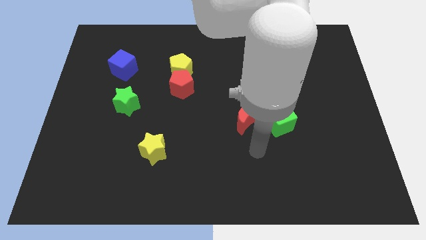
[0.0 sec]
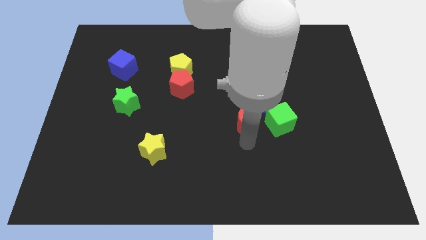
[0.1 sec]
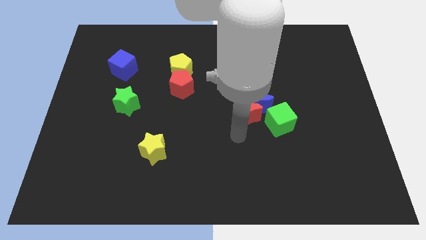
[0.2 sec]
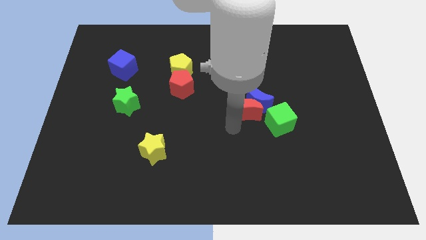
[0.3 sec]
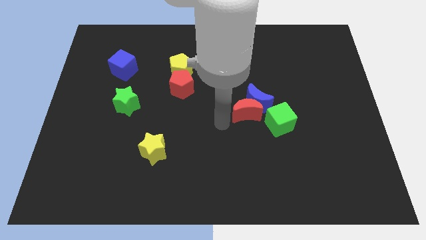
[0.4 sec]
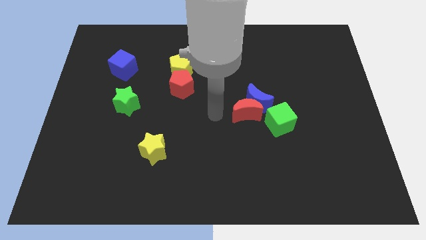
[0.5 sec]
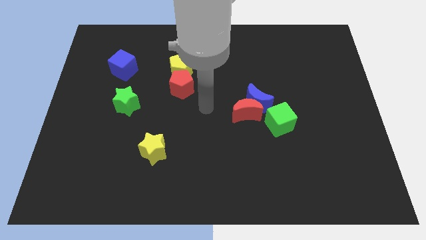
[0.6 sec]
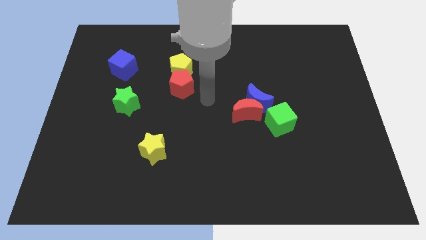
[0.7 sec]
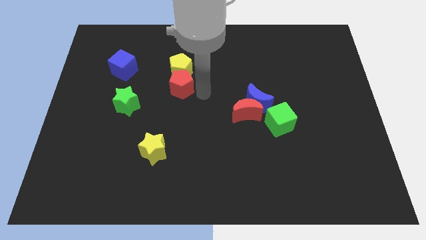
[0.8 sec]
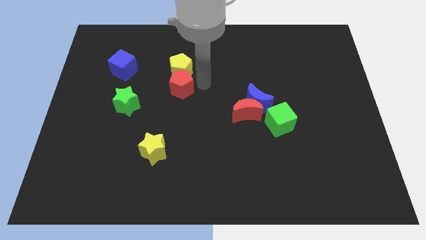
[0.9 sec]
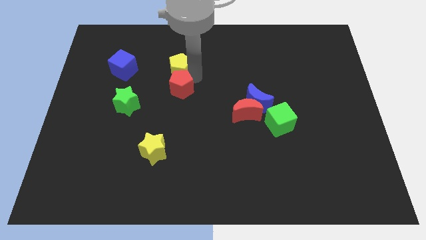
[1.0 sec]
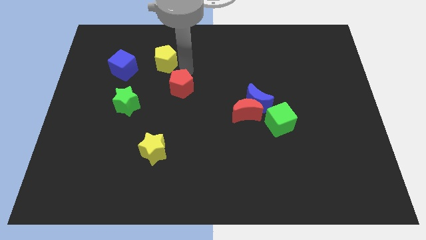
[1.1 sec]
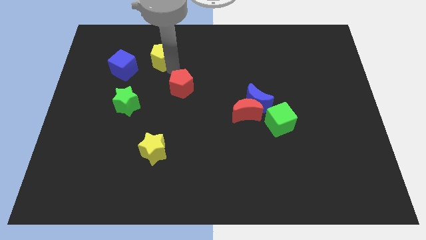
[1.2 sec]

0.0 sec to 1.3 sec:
separate the red pentagon from the yellow pentagon

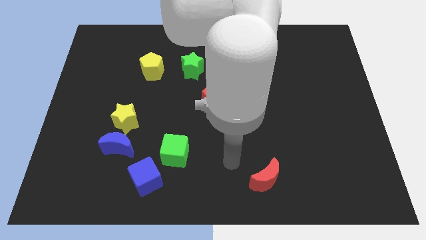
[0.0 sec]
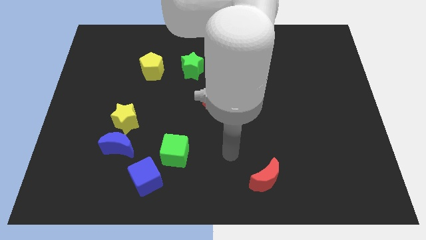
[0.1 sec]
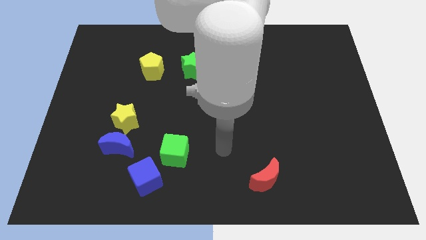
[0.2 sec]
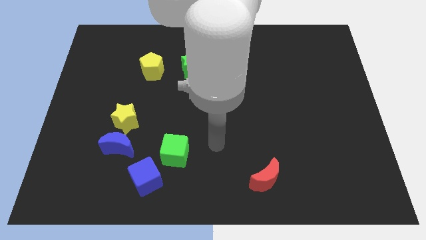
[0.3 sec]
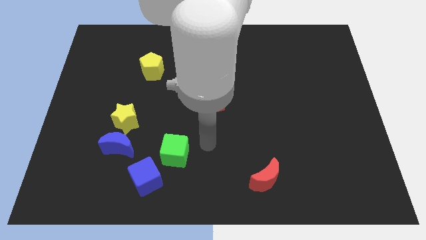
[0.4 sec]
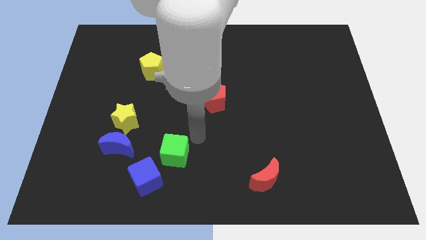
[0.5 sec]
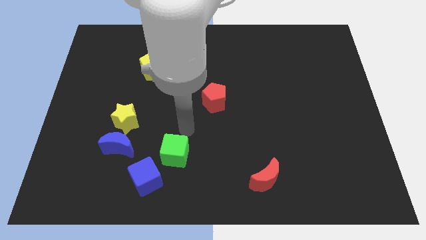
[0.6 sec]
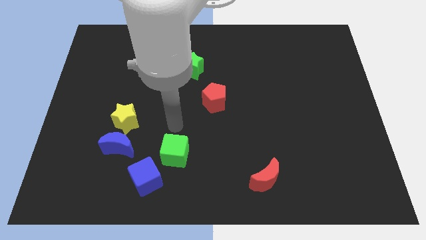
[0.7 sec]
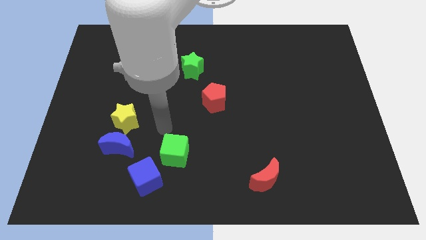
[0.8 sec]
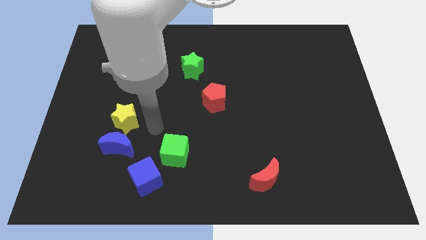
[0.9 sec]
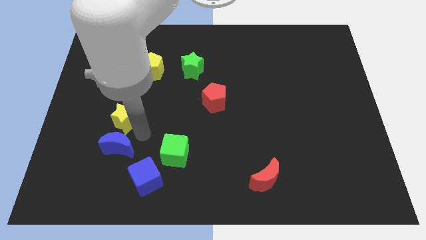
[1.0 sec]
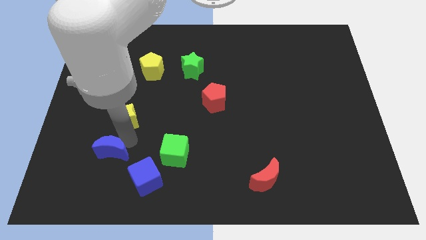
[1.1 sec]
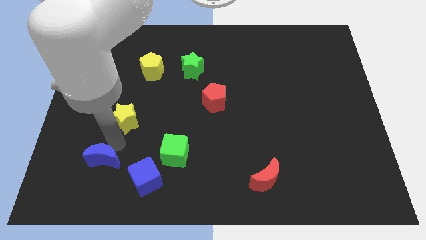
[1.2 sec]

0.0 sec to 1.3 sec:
pull the yellow star apart from the blue moon

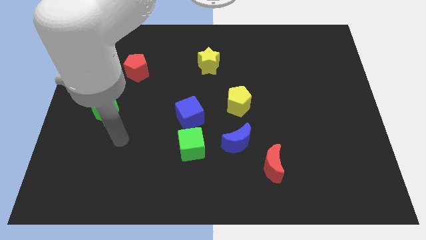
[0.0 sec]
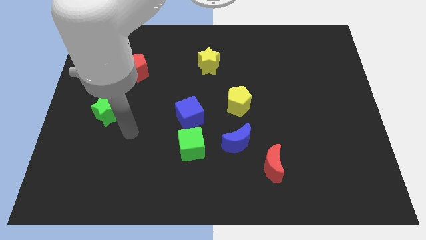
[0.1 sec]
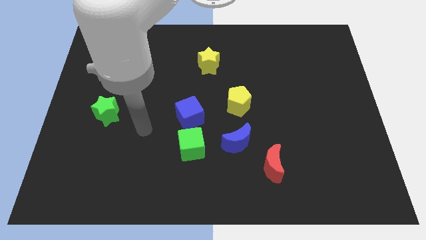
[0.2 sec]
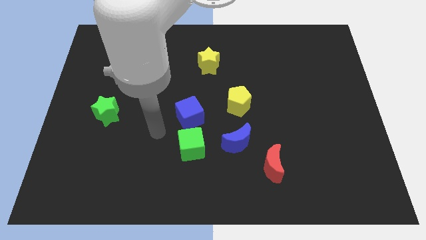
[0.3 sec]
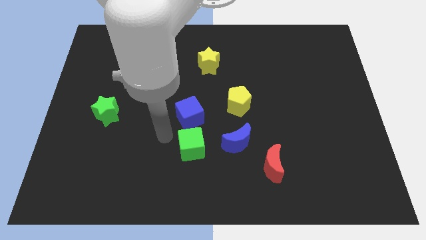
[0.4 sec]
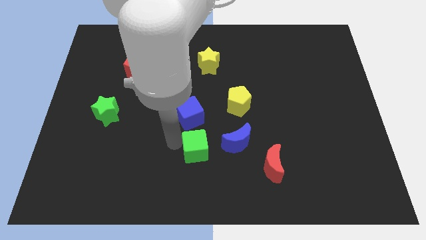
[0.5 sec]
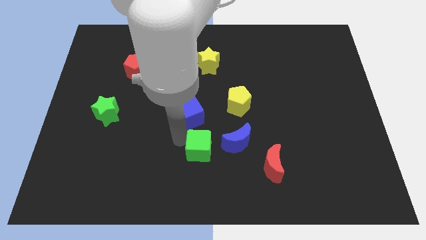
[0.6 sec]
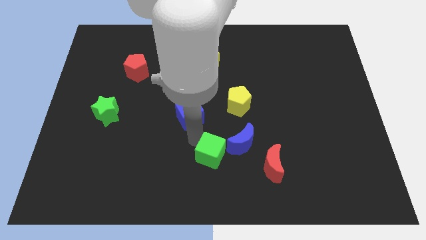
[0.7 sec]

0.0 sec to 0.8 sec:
separate the blue cube from the green cube

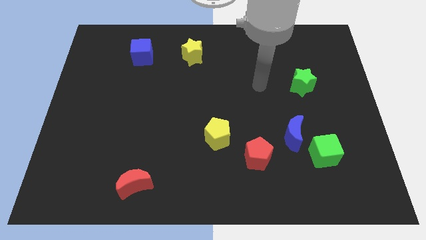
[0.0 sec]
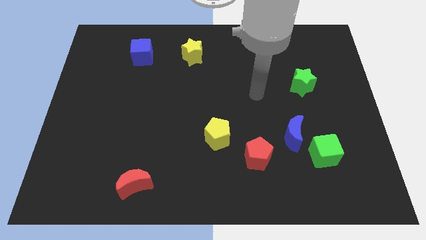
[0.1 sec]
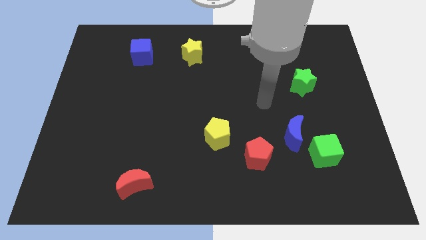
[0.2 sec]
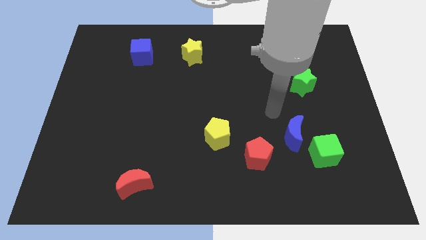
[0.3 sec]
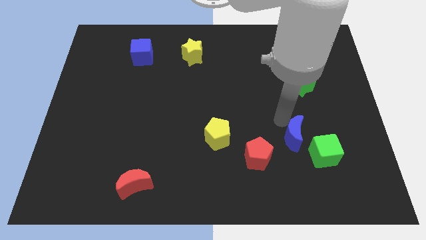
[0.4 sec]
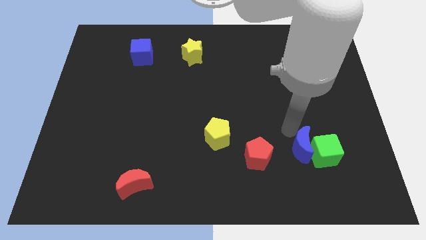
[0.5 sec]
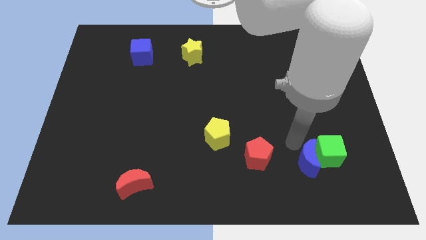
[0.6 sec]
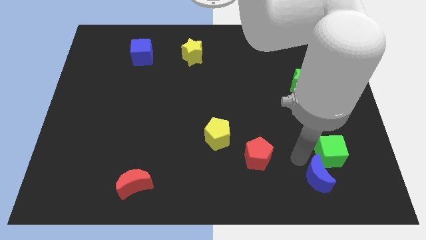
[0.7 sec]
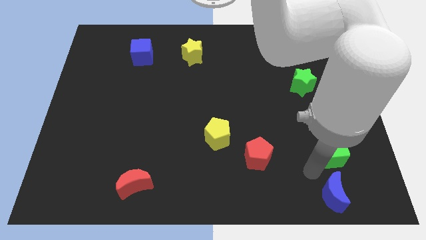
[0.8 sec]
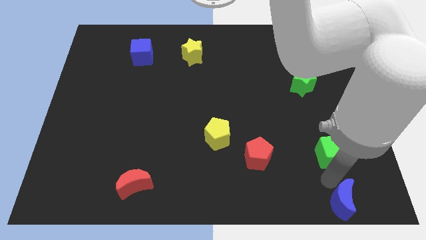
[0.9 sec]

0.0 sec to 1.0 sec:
pull the green cube apart from the blue moon

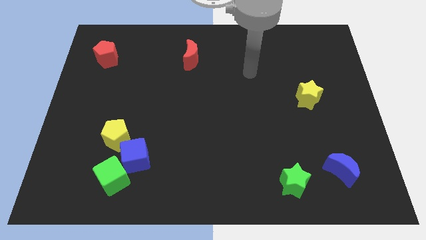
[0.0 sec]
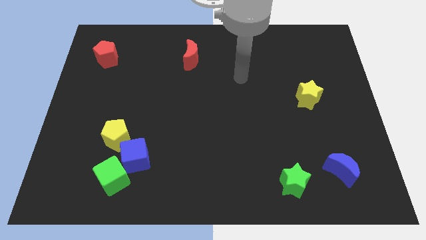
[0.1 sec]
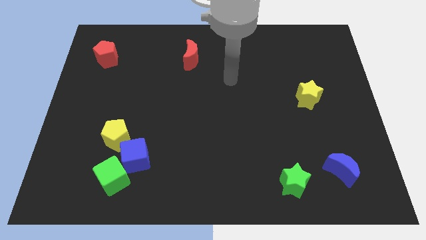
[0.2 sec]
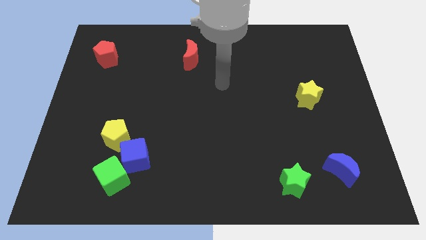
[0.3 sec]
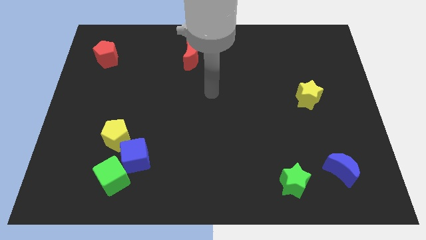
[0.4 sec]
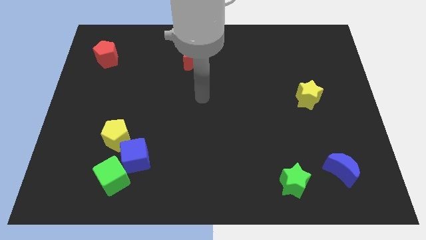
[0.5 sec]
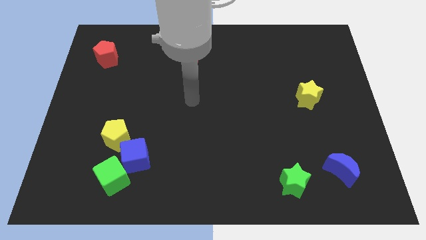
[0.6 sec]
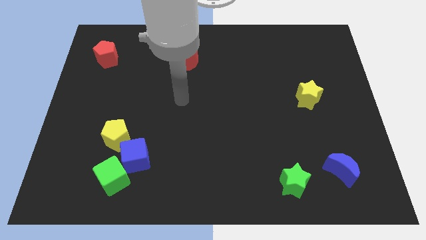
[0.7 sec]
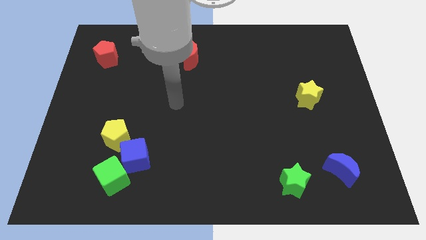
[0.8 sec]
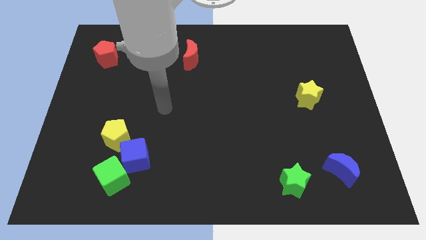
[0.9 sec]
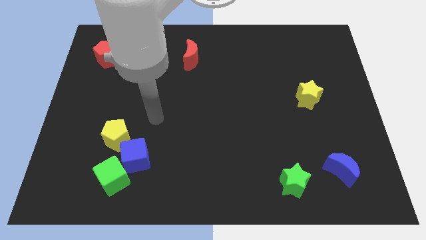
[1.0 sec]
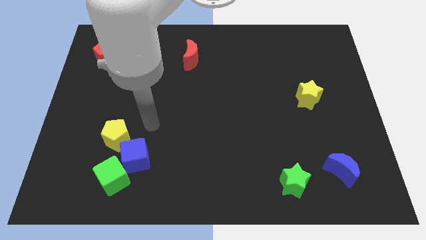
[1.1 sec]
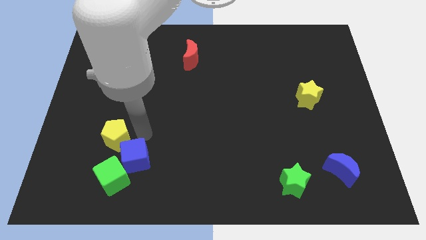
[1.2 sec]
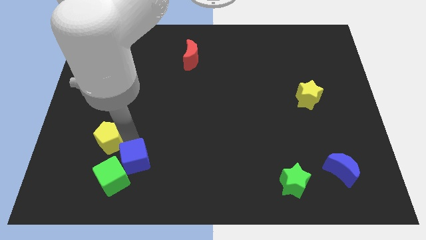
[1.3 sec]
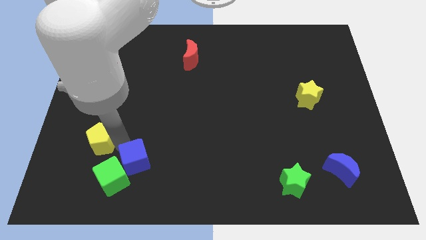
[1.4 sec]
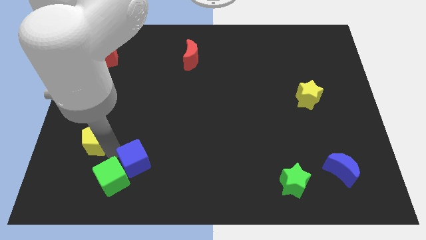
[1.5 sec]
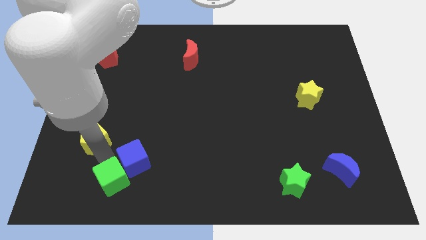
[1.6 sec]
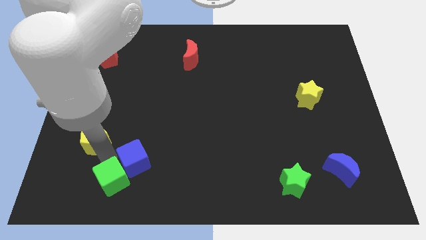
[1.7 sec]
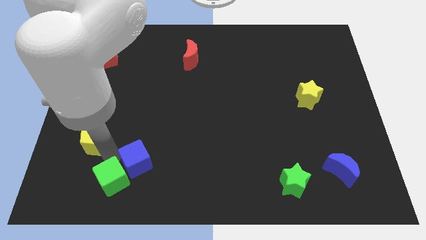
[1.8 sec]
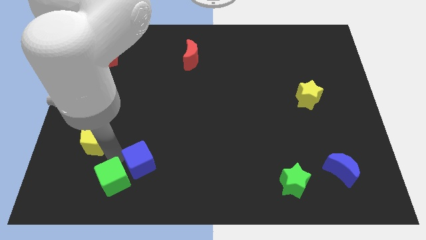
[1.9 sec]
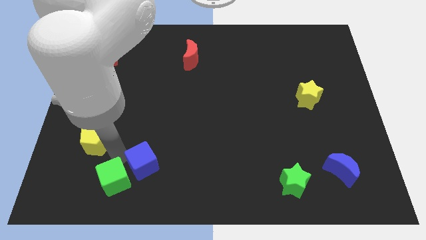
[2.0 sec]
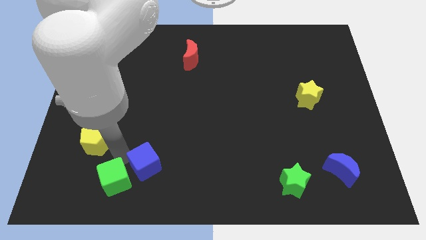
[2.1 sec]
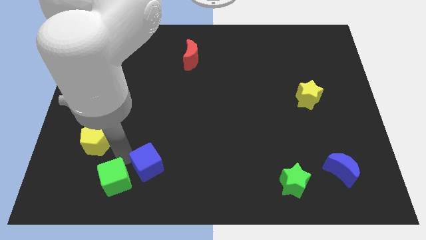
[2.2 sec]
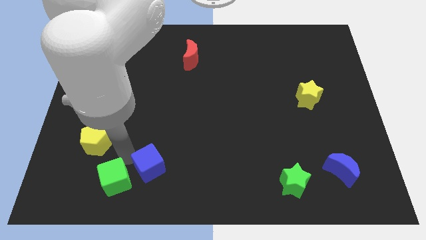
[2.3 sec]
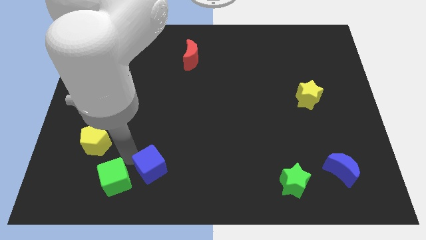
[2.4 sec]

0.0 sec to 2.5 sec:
move the blue cube away from the green cube and yellow pentagon

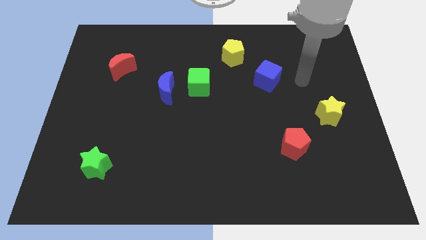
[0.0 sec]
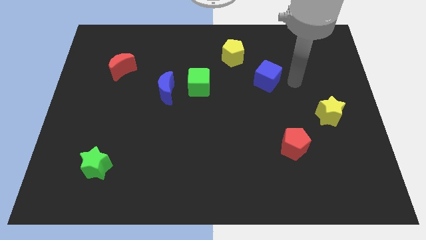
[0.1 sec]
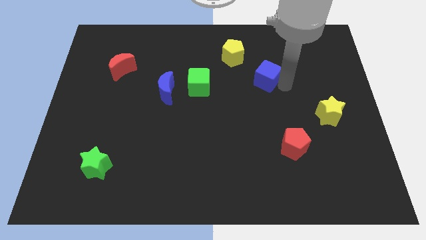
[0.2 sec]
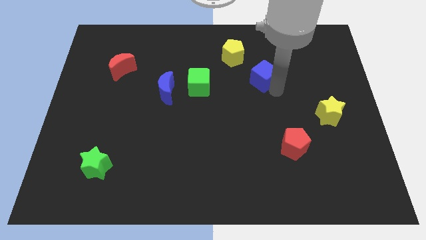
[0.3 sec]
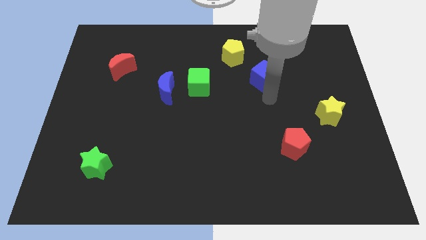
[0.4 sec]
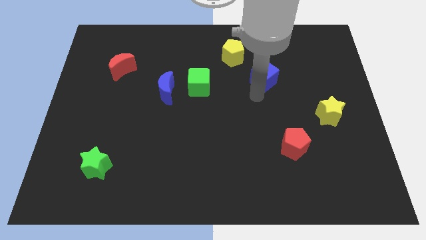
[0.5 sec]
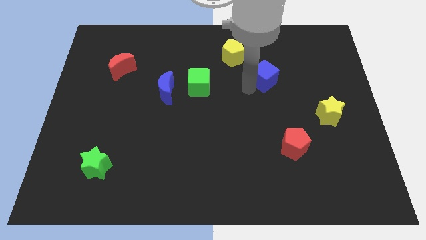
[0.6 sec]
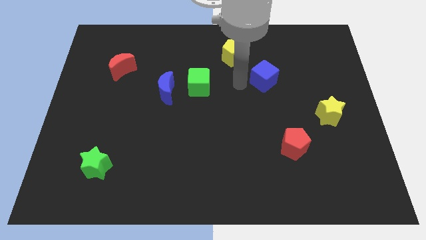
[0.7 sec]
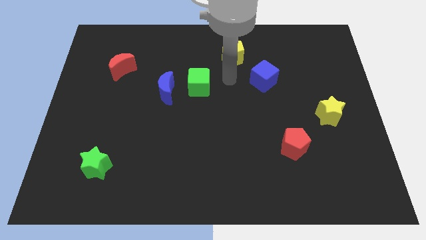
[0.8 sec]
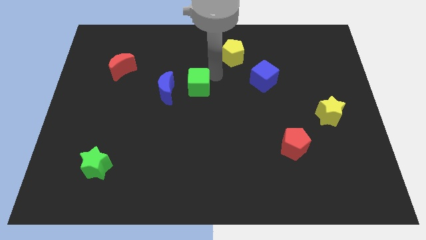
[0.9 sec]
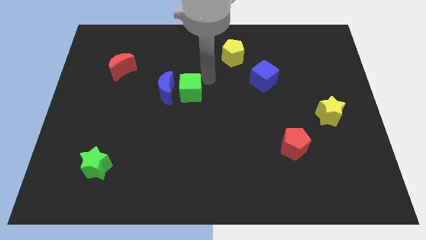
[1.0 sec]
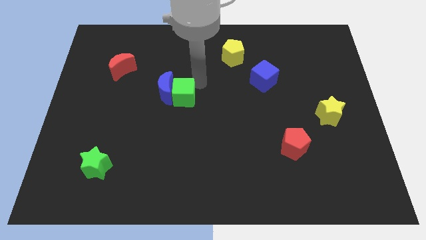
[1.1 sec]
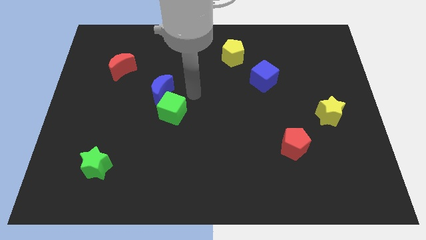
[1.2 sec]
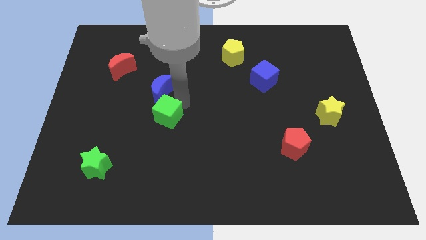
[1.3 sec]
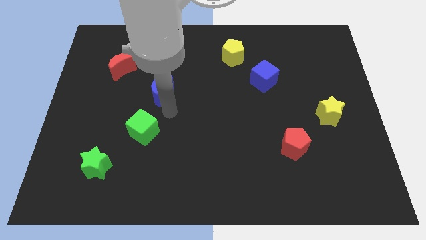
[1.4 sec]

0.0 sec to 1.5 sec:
pull the blue moon apart from the green cube

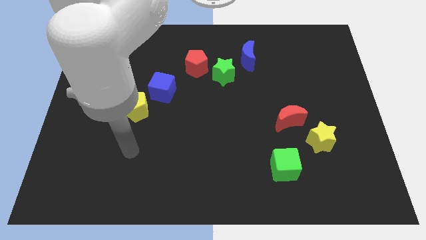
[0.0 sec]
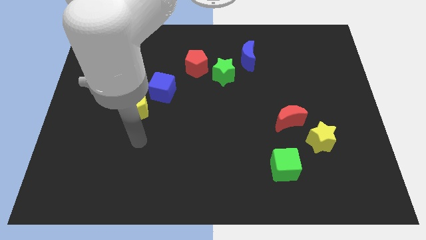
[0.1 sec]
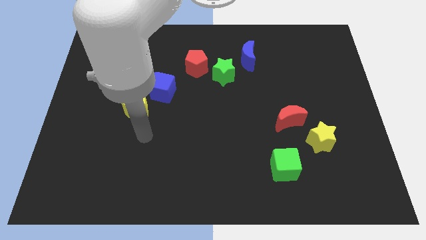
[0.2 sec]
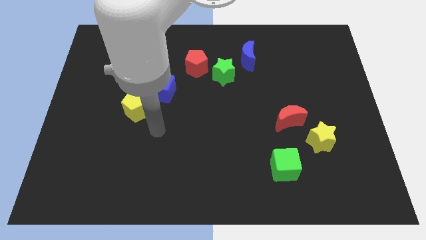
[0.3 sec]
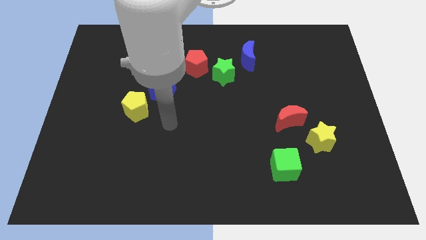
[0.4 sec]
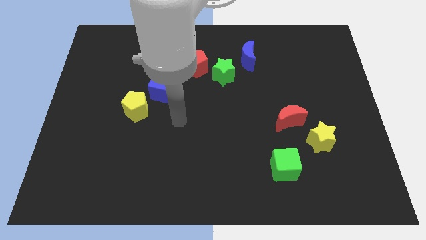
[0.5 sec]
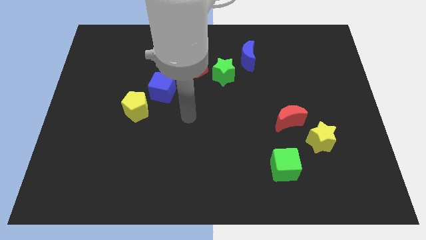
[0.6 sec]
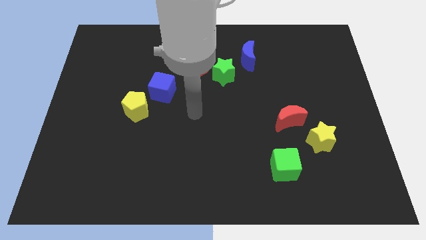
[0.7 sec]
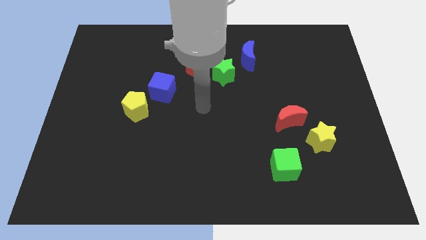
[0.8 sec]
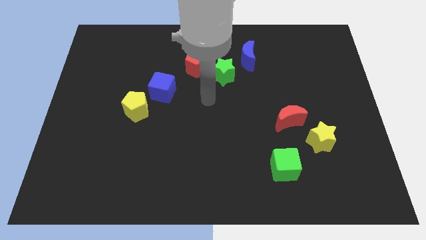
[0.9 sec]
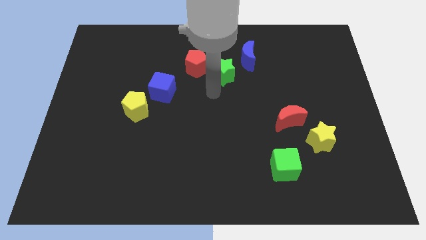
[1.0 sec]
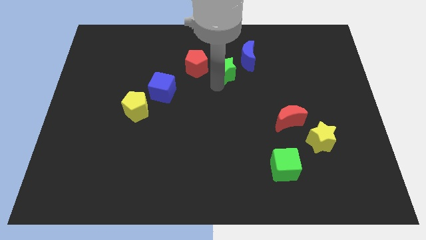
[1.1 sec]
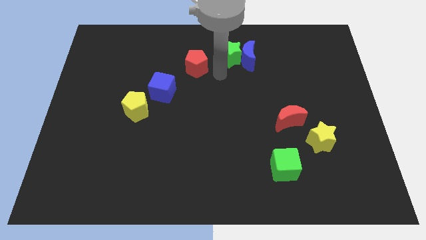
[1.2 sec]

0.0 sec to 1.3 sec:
move the red pentagon away from the green star
